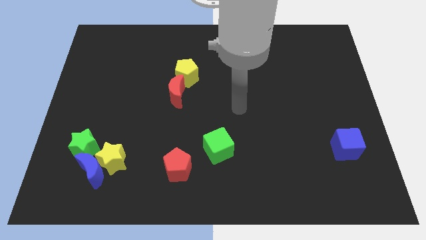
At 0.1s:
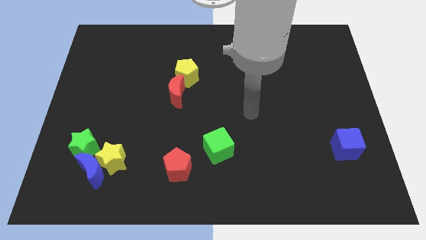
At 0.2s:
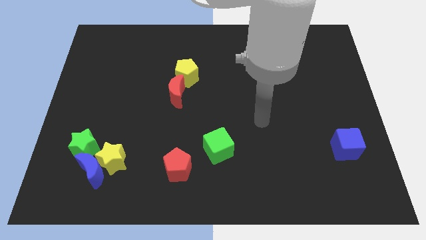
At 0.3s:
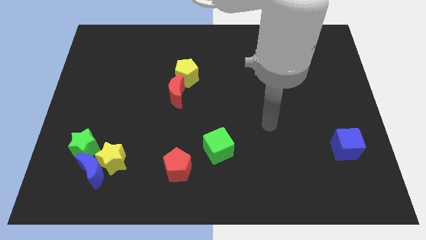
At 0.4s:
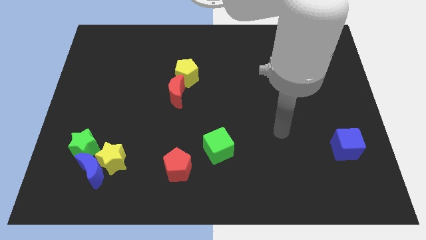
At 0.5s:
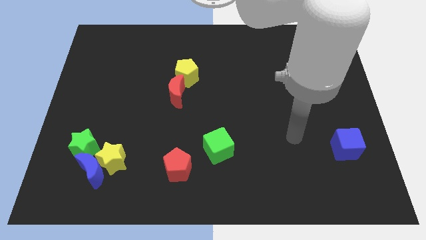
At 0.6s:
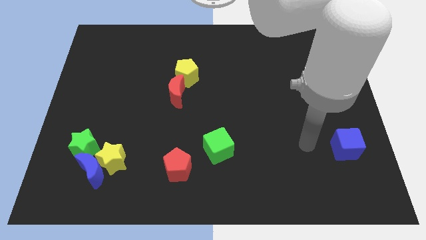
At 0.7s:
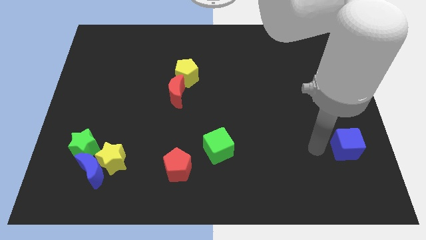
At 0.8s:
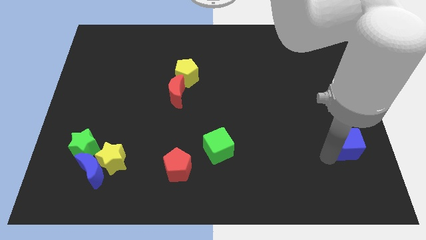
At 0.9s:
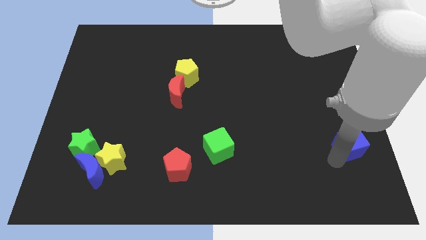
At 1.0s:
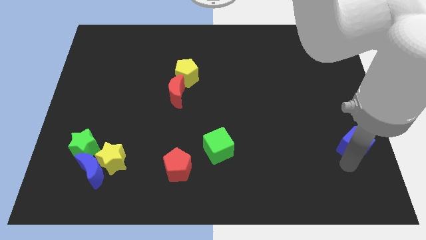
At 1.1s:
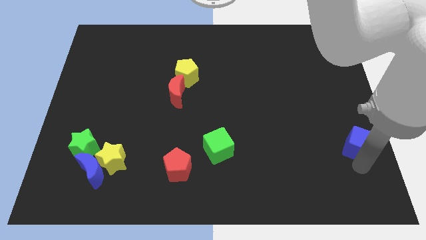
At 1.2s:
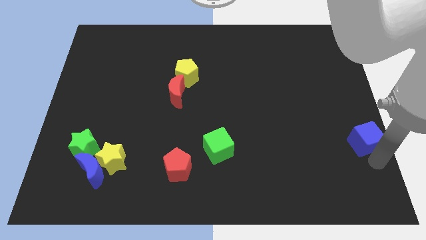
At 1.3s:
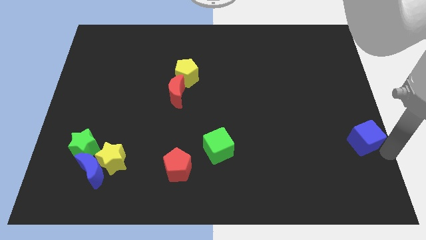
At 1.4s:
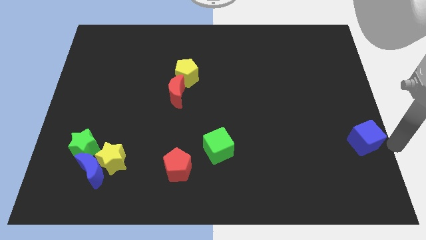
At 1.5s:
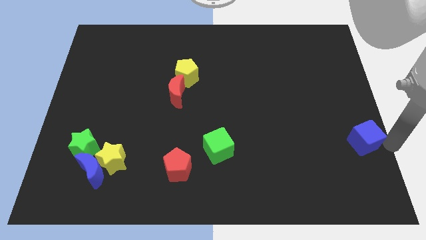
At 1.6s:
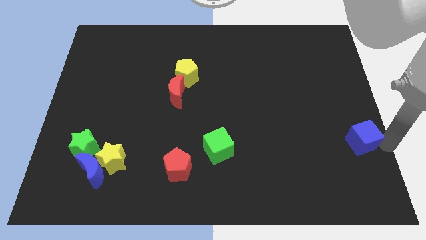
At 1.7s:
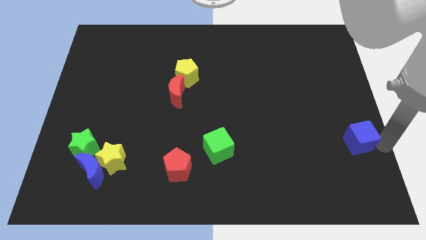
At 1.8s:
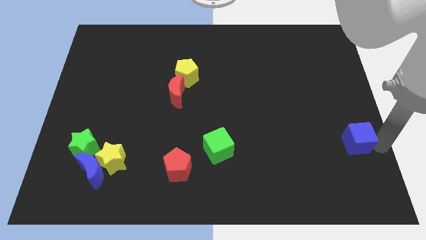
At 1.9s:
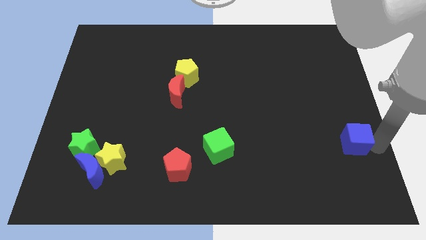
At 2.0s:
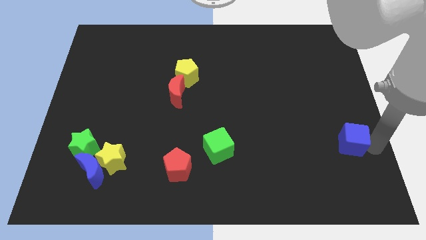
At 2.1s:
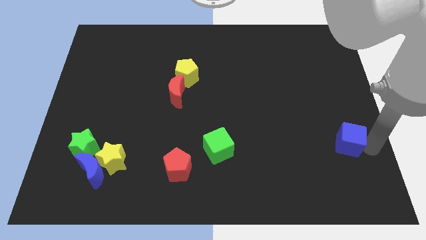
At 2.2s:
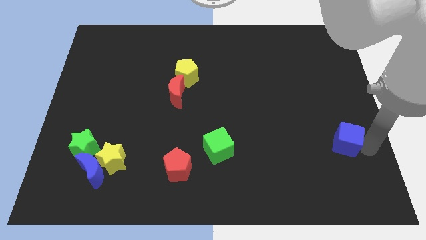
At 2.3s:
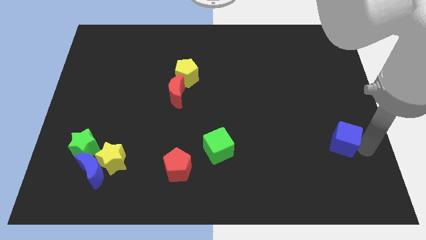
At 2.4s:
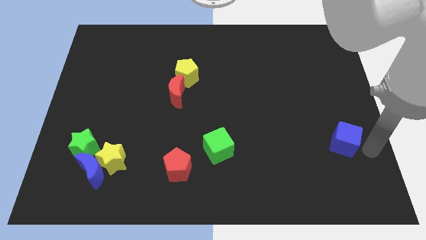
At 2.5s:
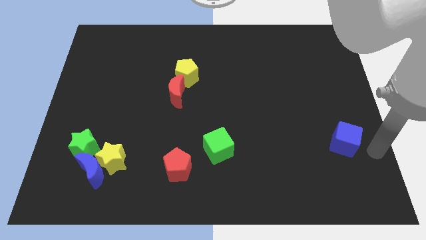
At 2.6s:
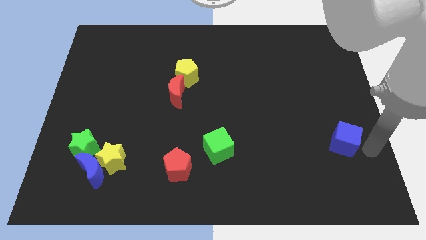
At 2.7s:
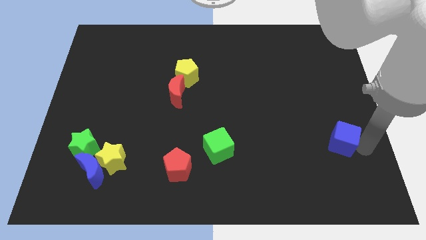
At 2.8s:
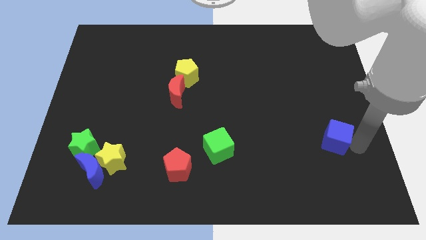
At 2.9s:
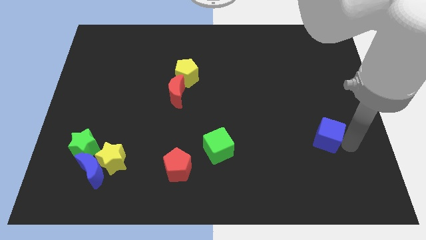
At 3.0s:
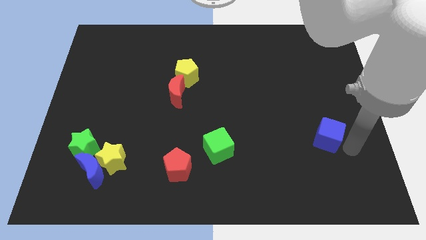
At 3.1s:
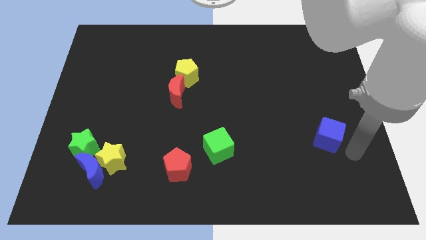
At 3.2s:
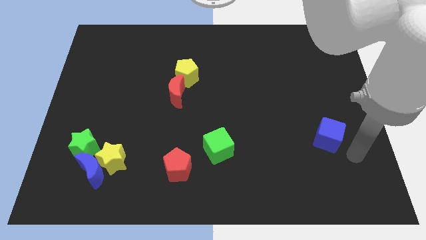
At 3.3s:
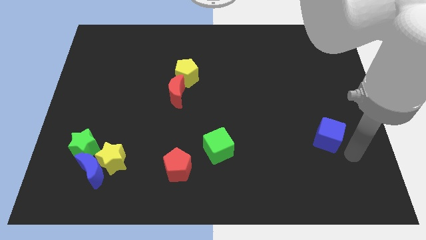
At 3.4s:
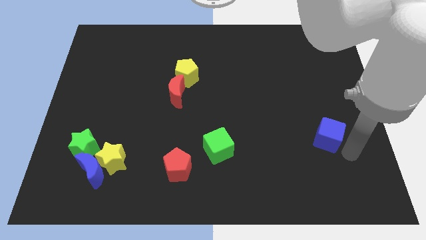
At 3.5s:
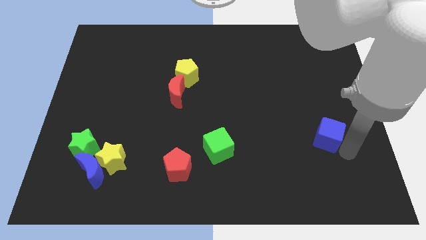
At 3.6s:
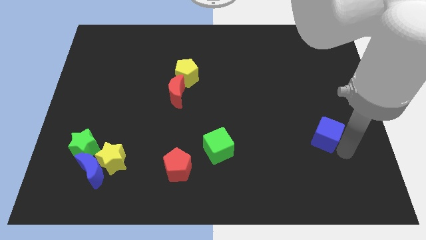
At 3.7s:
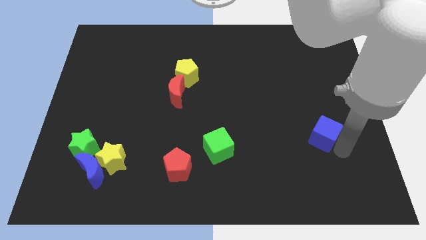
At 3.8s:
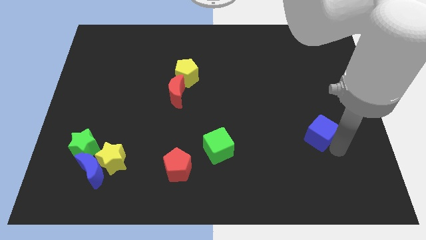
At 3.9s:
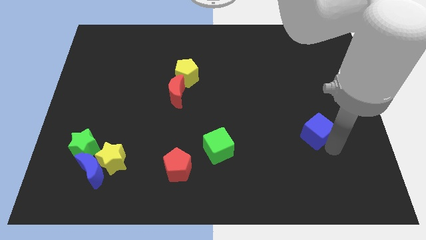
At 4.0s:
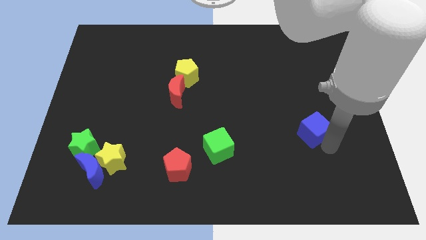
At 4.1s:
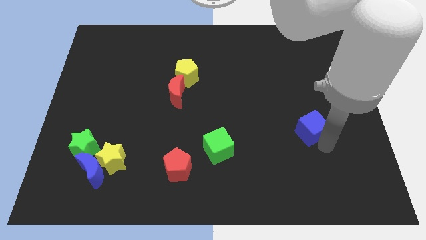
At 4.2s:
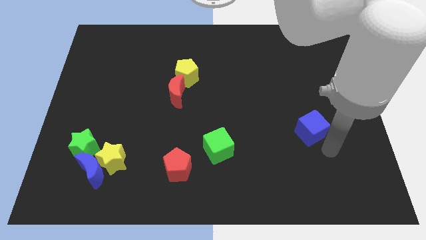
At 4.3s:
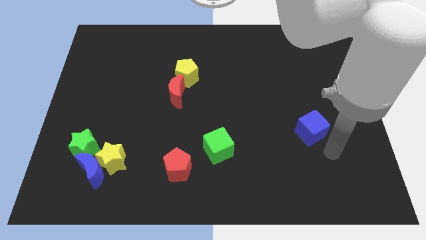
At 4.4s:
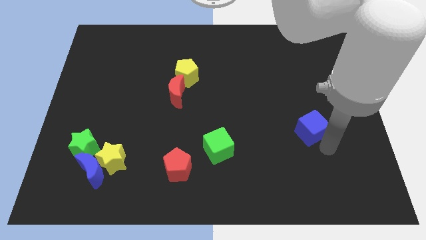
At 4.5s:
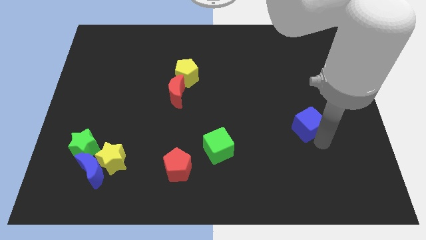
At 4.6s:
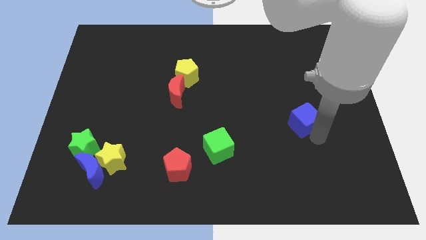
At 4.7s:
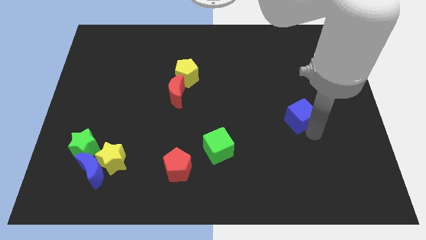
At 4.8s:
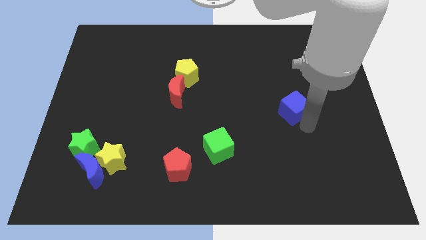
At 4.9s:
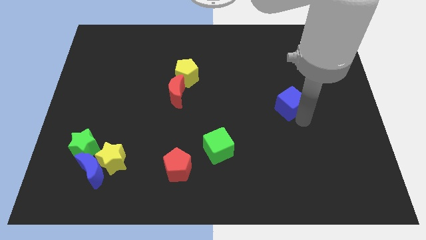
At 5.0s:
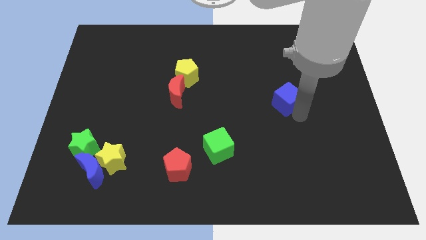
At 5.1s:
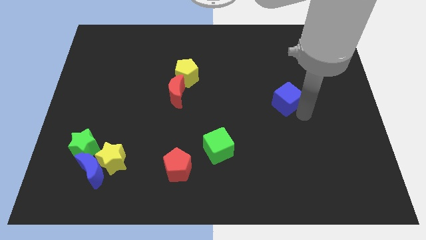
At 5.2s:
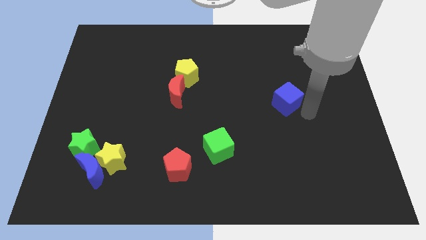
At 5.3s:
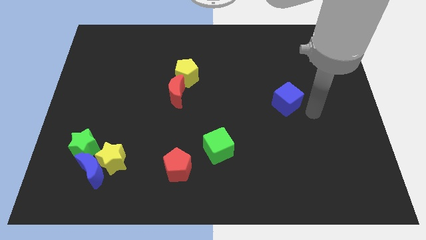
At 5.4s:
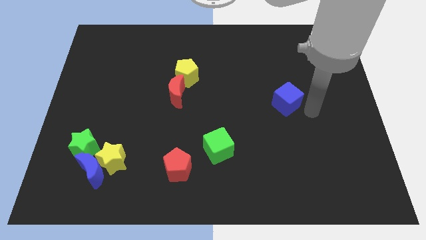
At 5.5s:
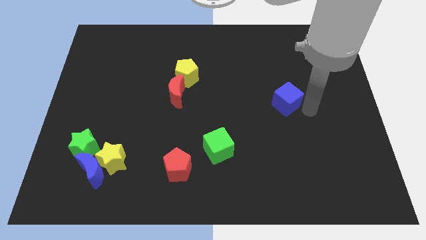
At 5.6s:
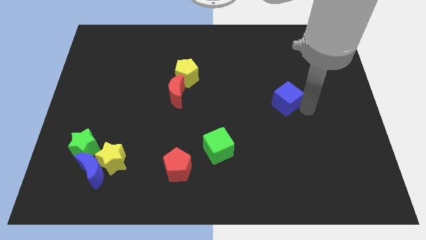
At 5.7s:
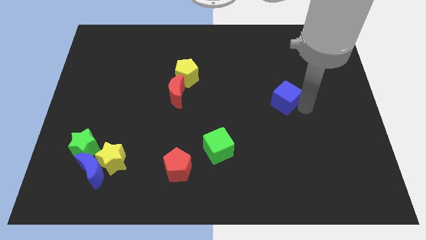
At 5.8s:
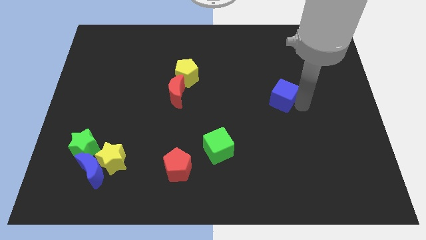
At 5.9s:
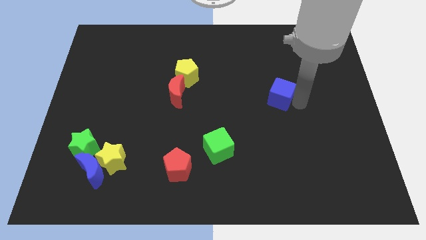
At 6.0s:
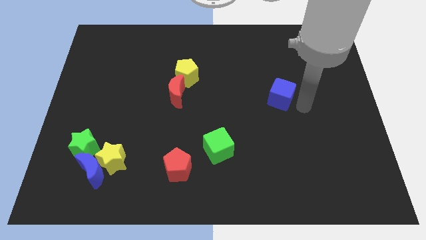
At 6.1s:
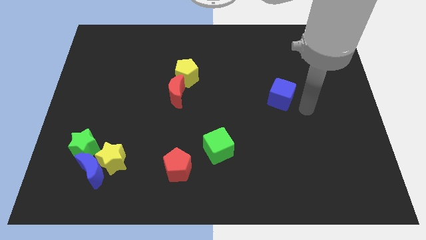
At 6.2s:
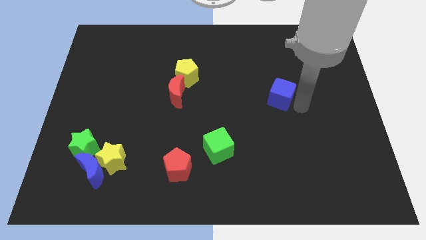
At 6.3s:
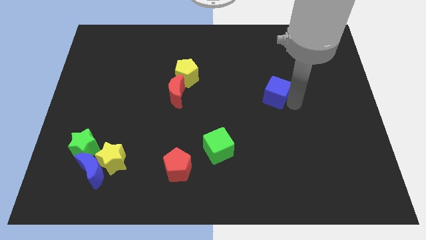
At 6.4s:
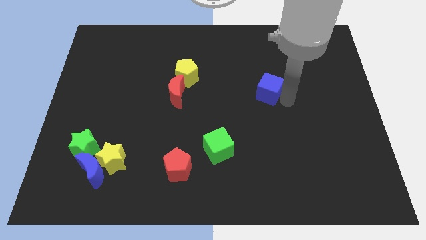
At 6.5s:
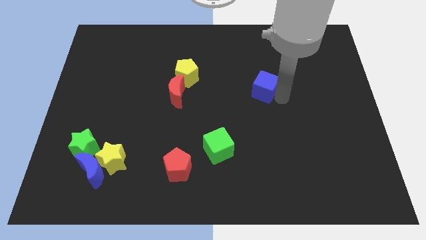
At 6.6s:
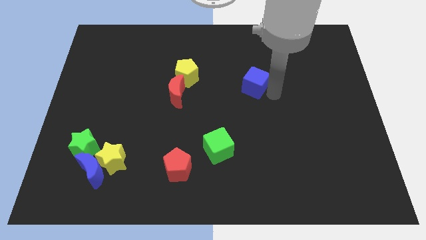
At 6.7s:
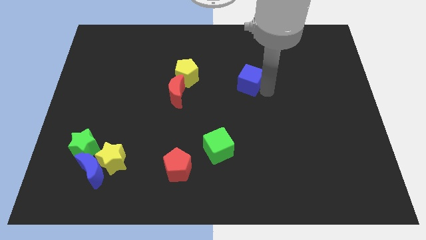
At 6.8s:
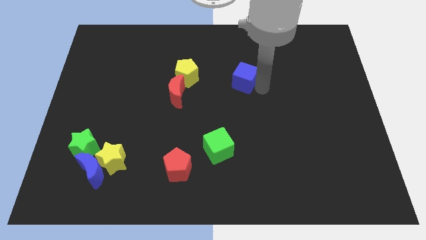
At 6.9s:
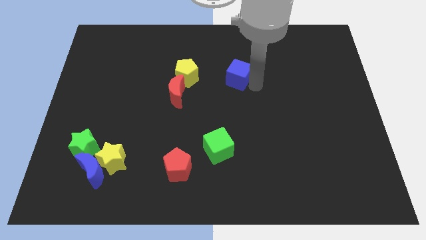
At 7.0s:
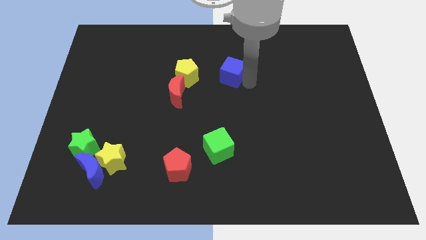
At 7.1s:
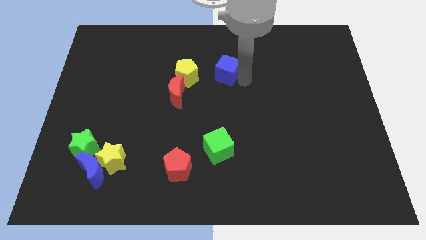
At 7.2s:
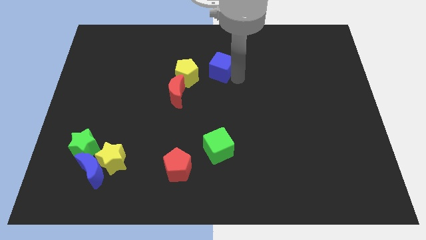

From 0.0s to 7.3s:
put the blue cube to the top right of the yellow pentagon
